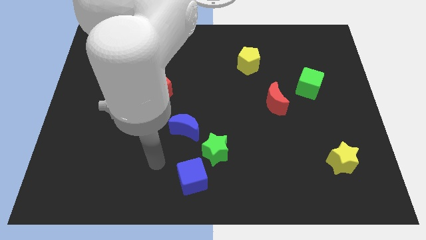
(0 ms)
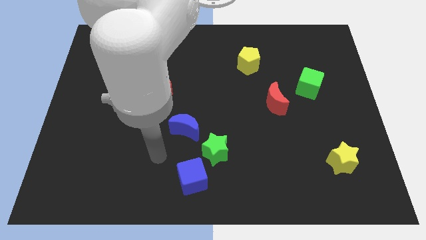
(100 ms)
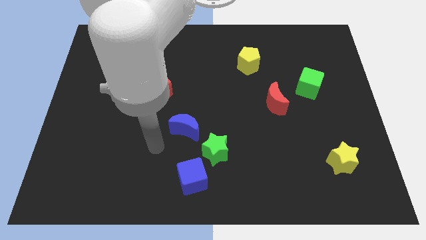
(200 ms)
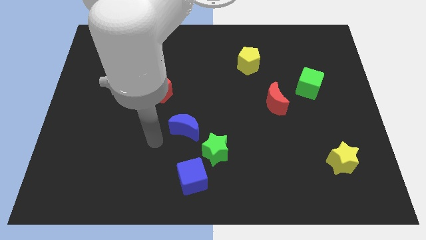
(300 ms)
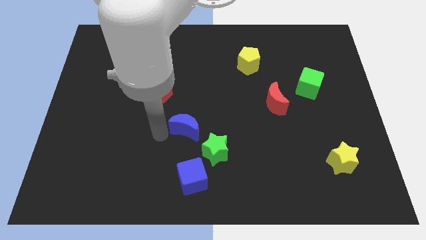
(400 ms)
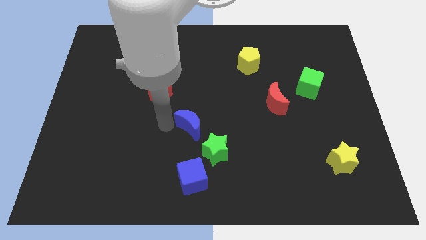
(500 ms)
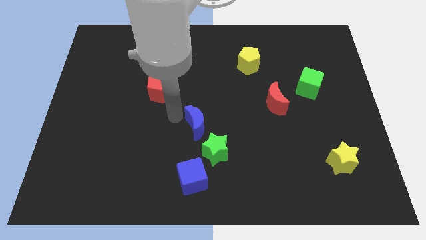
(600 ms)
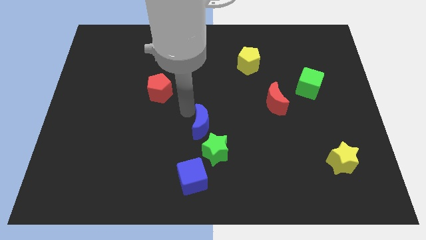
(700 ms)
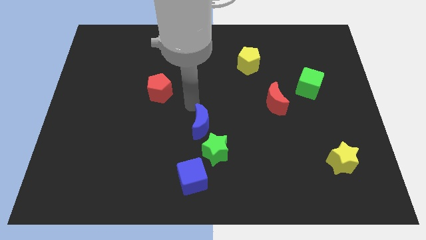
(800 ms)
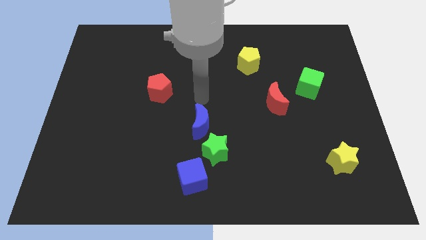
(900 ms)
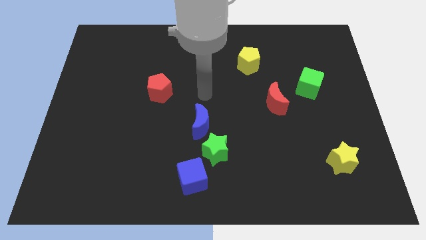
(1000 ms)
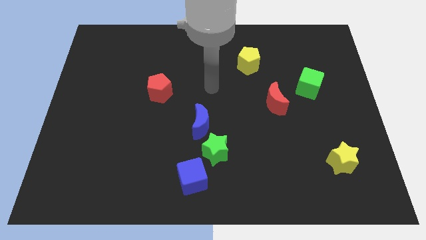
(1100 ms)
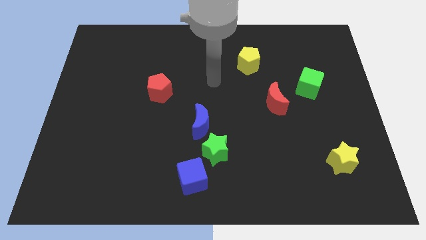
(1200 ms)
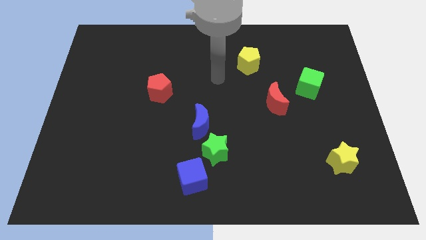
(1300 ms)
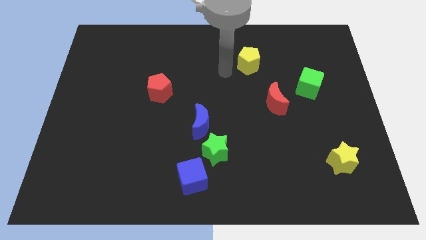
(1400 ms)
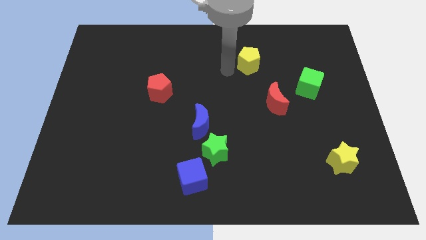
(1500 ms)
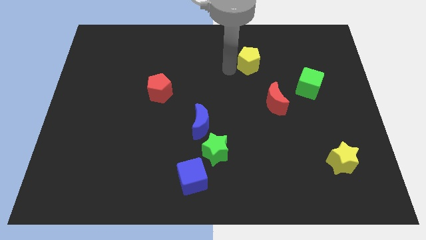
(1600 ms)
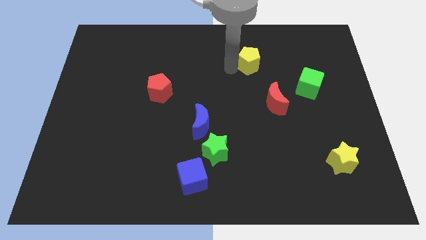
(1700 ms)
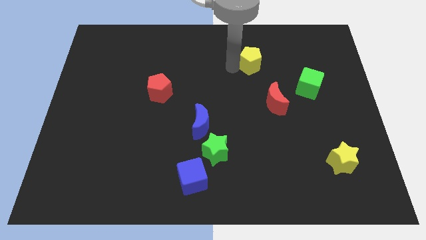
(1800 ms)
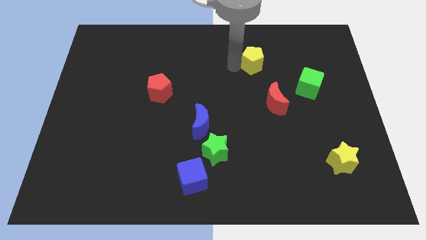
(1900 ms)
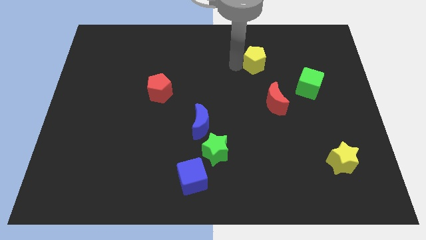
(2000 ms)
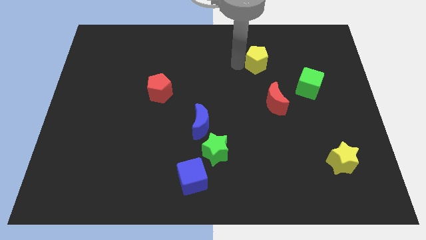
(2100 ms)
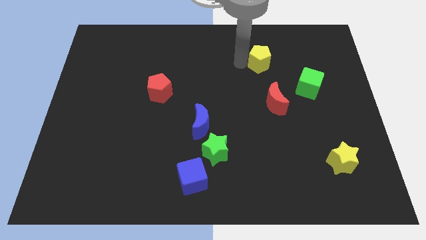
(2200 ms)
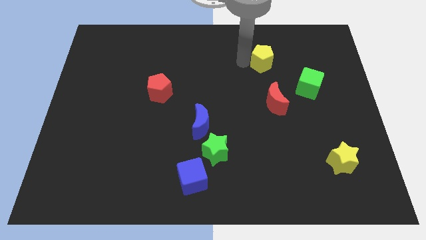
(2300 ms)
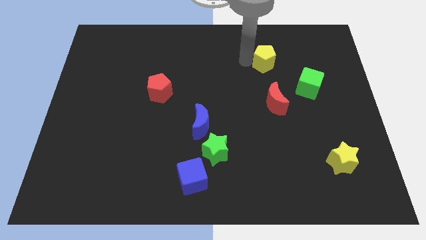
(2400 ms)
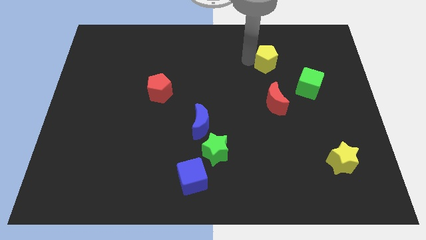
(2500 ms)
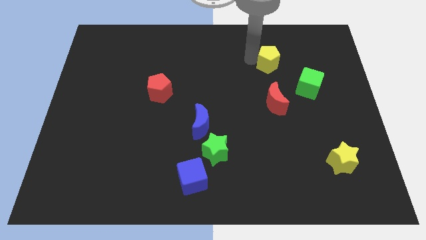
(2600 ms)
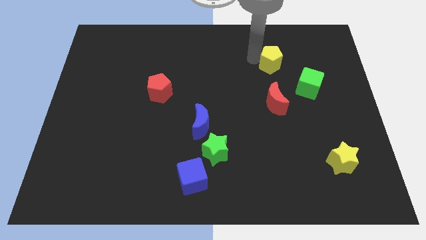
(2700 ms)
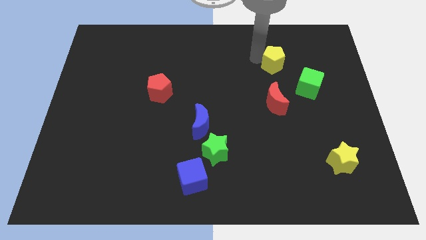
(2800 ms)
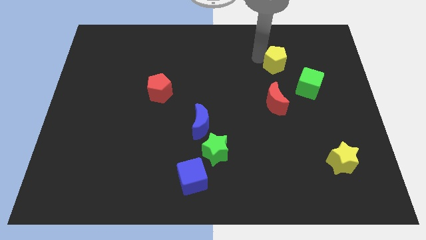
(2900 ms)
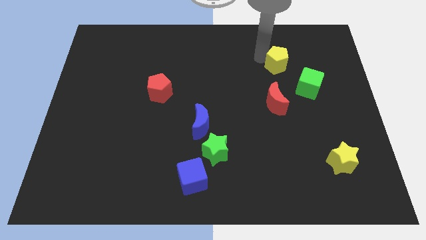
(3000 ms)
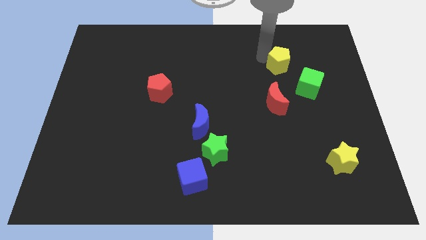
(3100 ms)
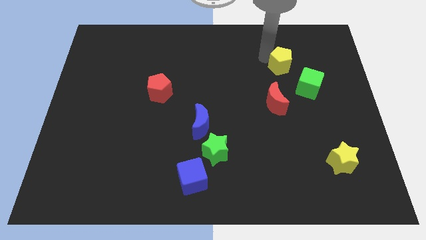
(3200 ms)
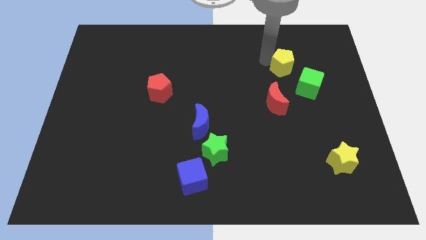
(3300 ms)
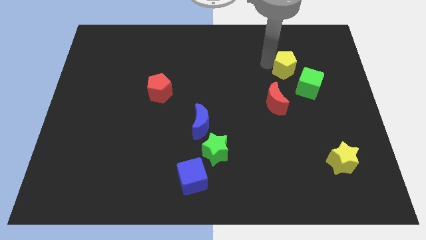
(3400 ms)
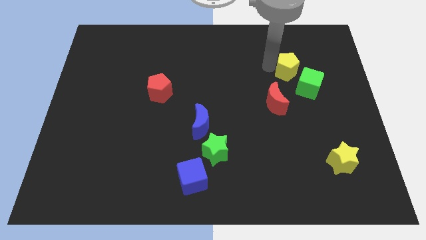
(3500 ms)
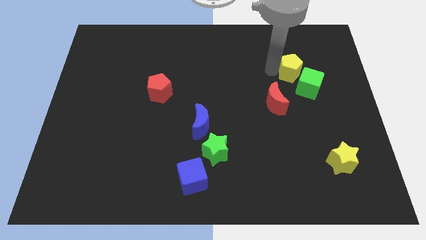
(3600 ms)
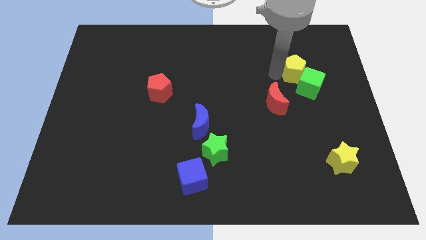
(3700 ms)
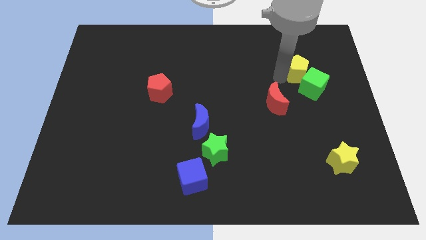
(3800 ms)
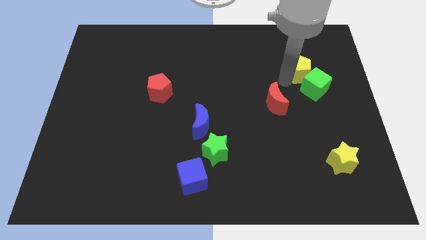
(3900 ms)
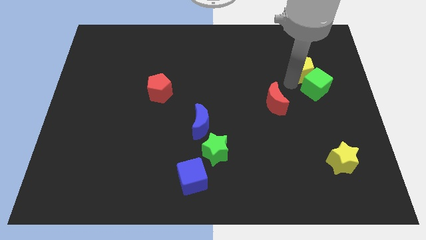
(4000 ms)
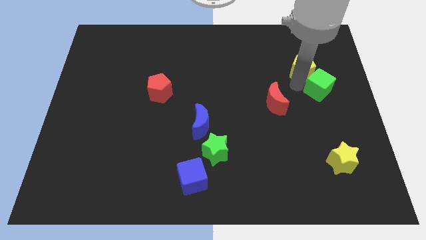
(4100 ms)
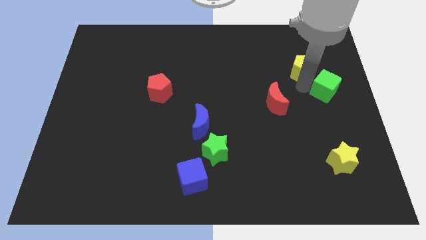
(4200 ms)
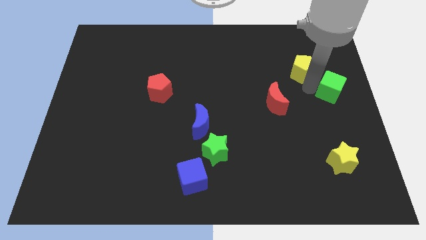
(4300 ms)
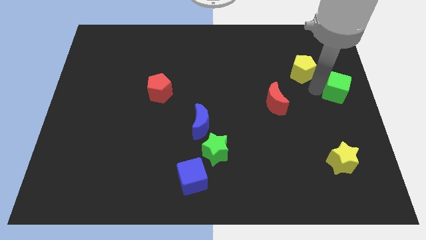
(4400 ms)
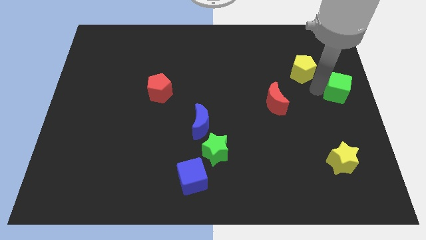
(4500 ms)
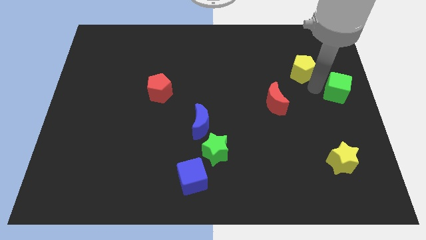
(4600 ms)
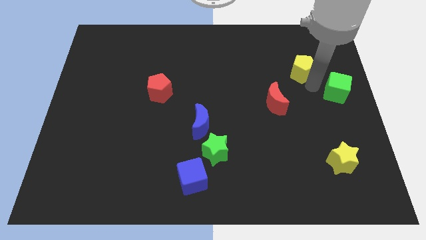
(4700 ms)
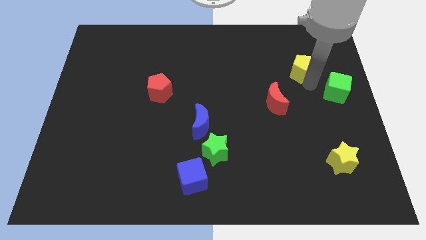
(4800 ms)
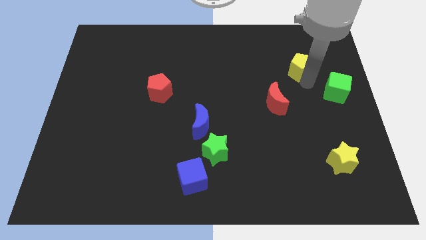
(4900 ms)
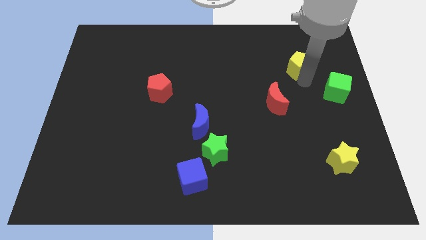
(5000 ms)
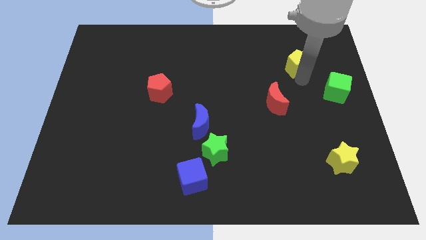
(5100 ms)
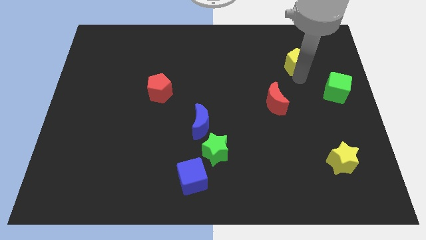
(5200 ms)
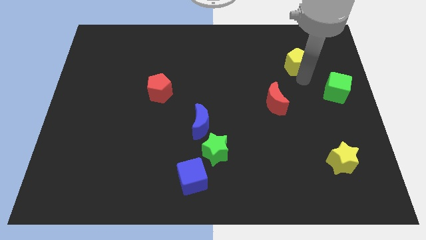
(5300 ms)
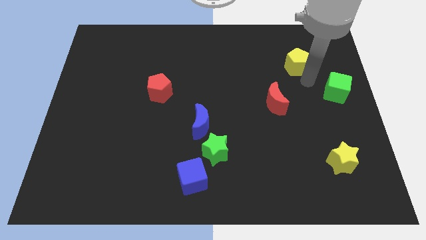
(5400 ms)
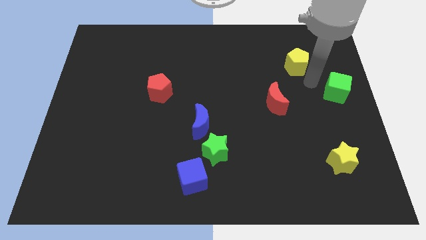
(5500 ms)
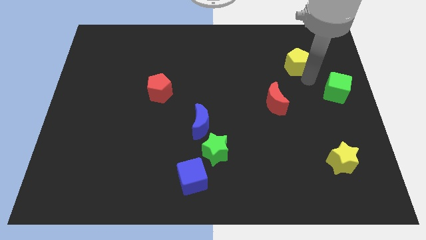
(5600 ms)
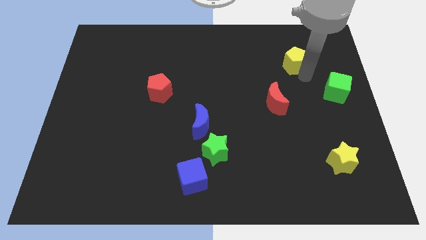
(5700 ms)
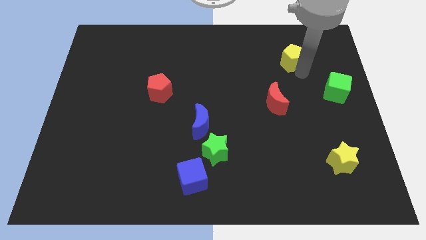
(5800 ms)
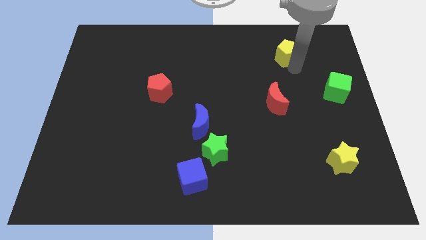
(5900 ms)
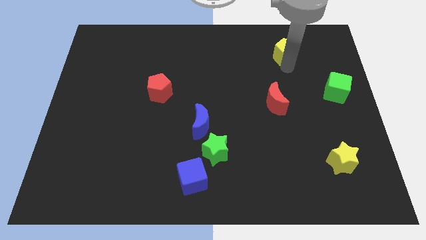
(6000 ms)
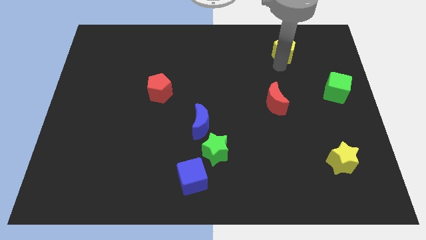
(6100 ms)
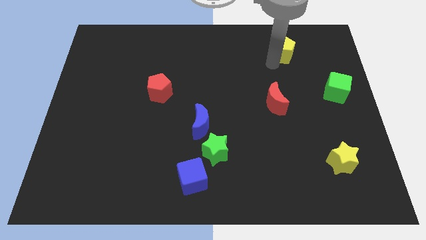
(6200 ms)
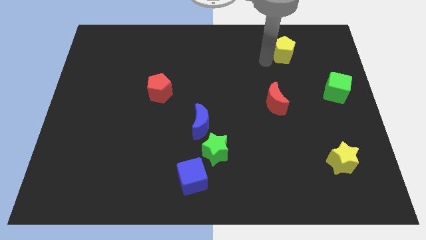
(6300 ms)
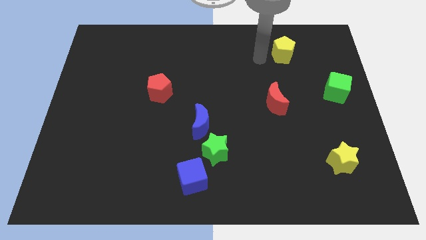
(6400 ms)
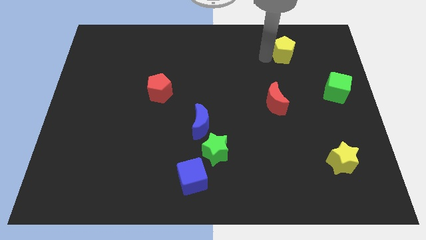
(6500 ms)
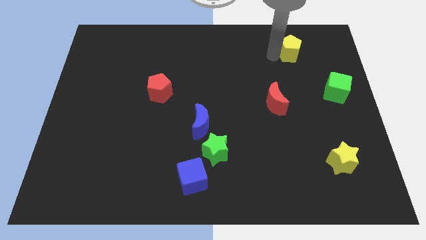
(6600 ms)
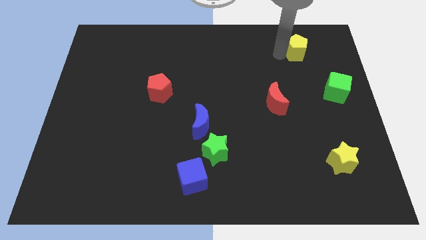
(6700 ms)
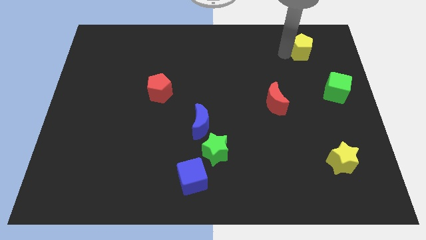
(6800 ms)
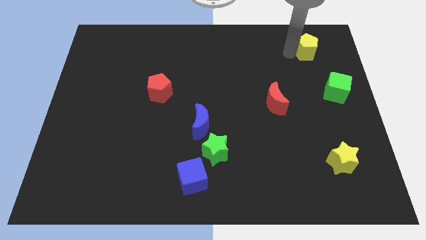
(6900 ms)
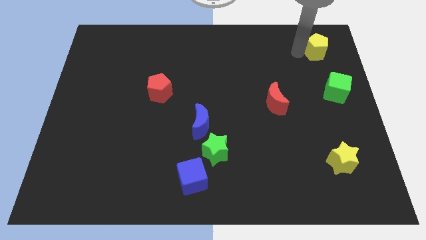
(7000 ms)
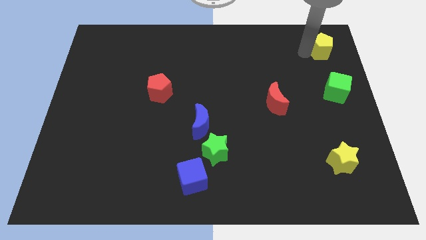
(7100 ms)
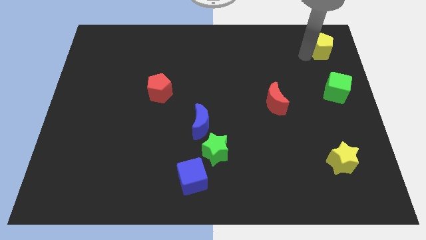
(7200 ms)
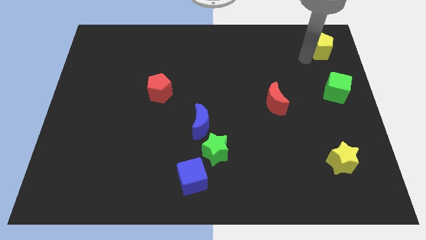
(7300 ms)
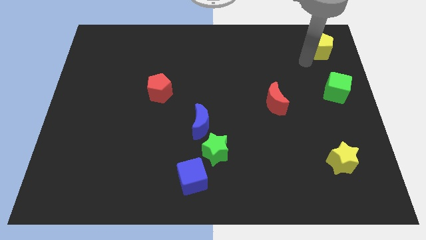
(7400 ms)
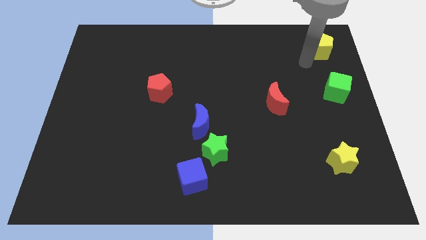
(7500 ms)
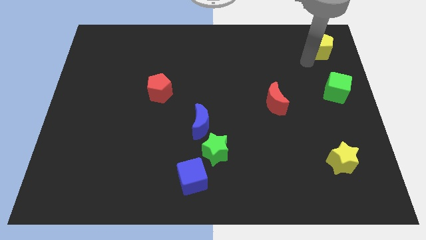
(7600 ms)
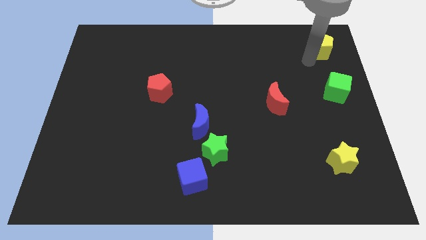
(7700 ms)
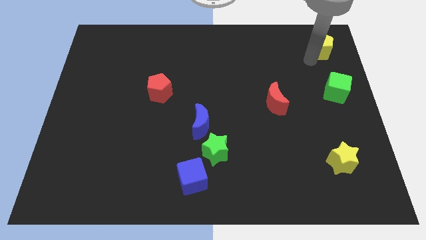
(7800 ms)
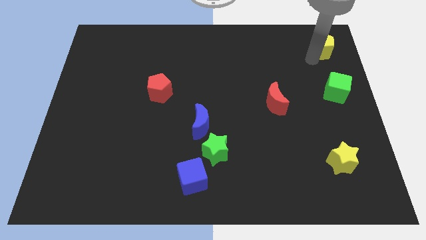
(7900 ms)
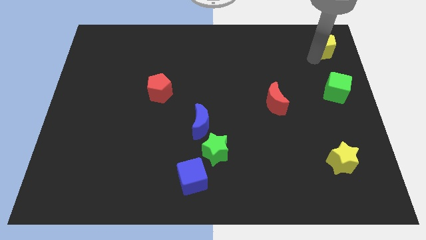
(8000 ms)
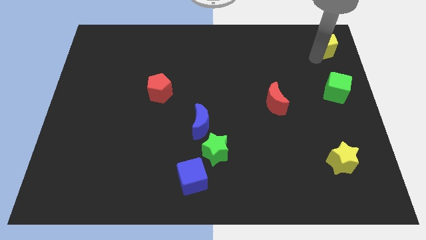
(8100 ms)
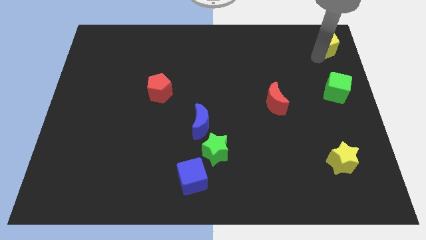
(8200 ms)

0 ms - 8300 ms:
move the yellow pentagon to the top right of the board
